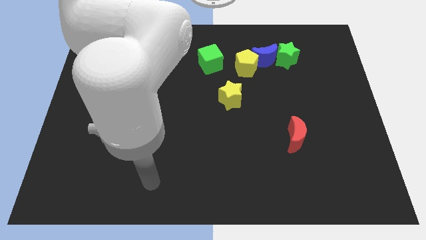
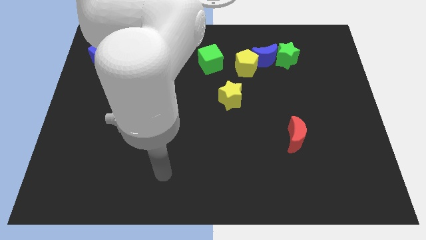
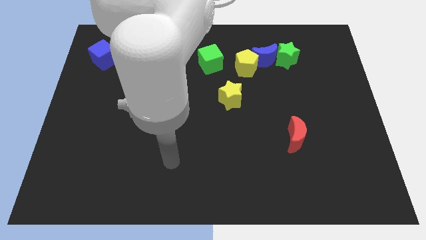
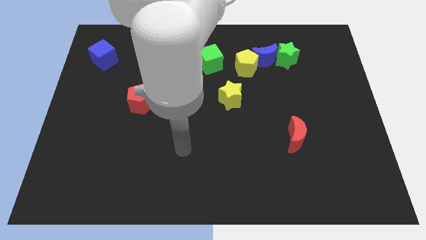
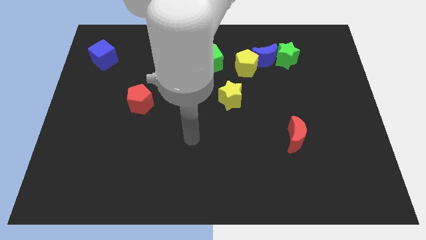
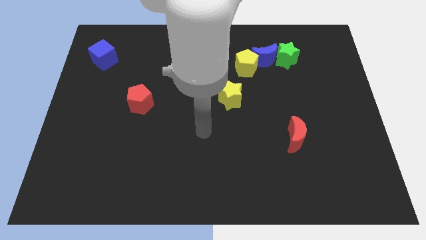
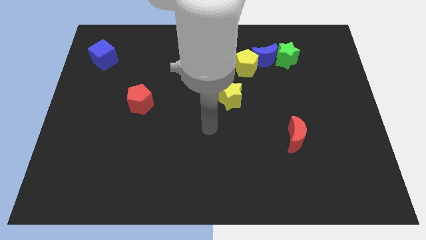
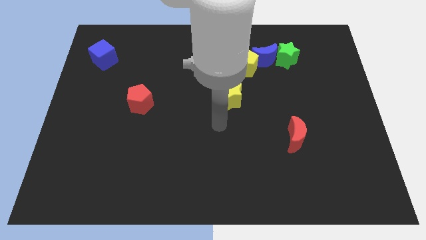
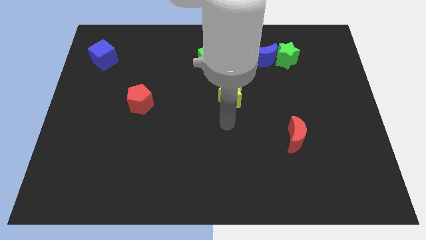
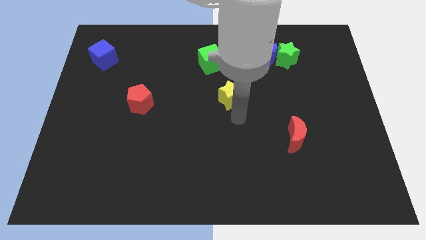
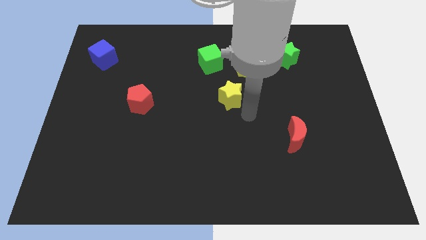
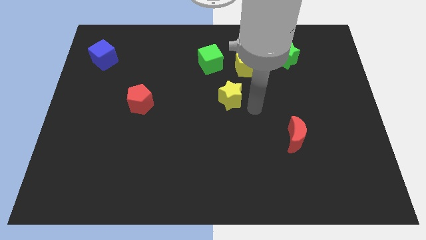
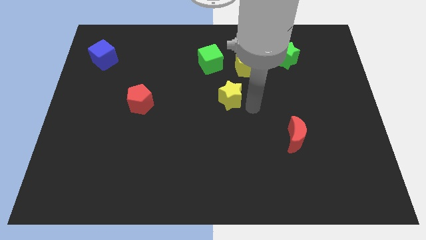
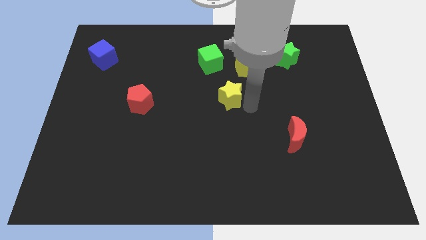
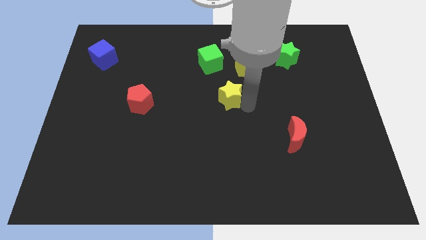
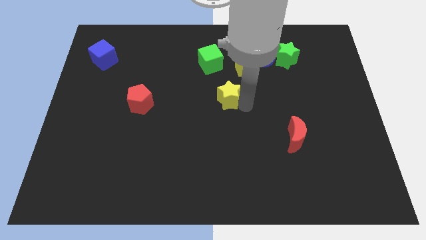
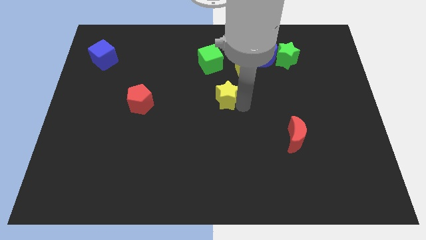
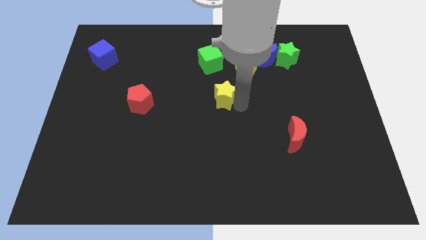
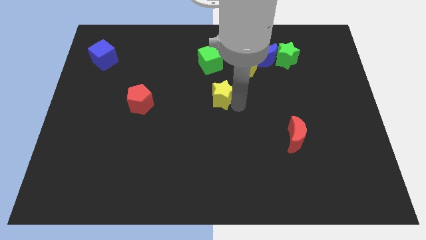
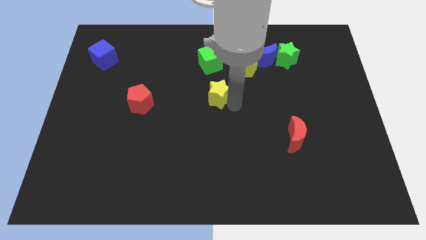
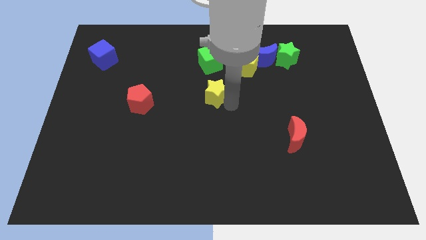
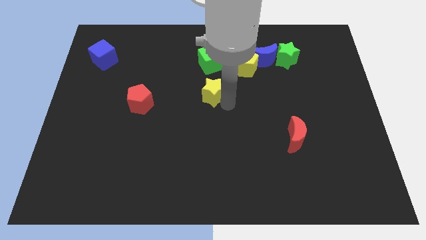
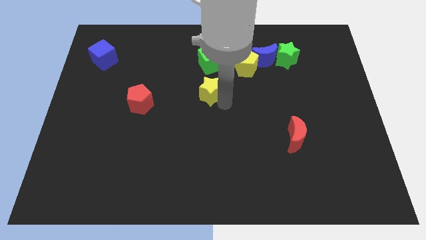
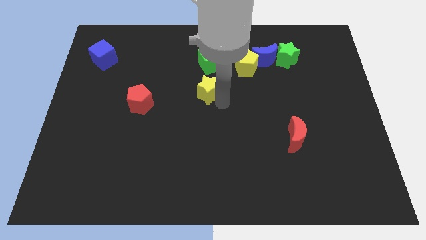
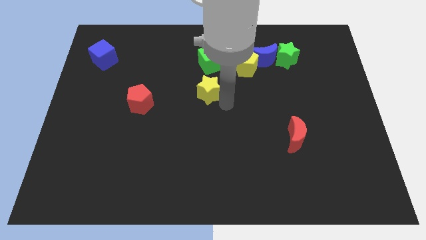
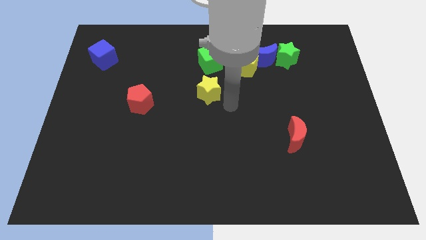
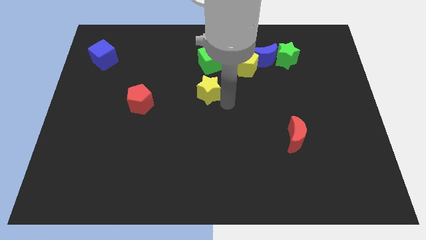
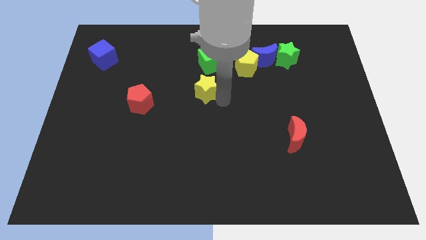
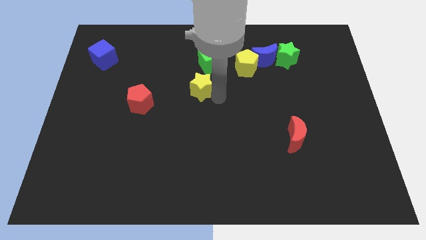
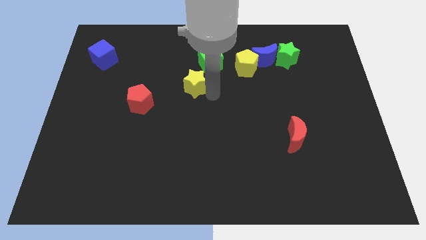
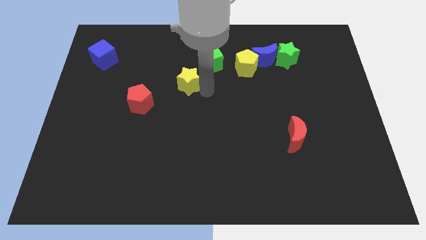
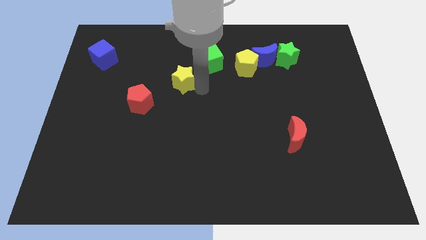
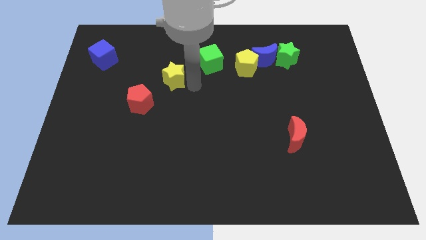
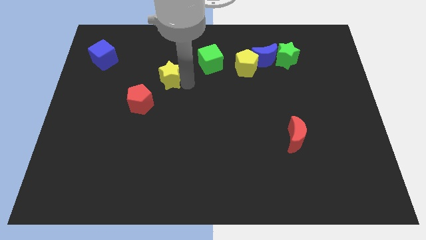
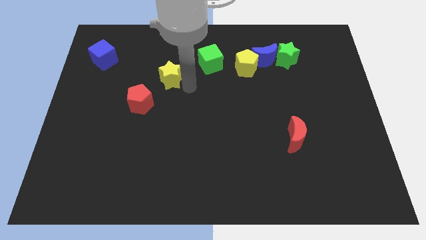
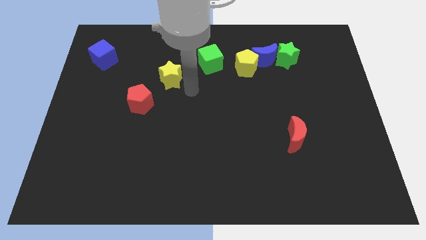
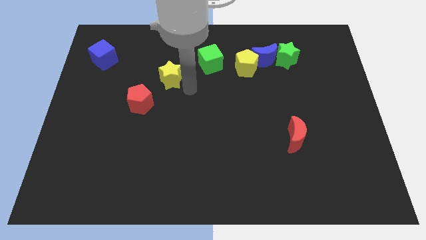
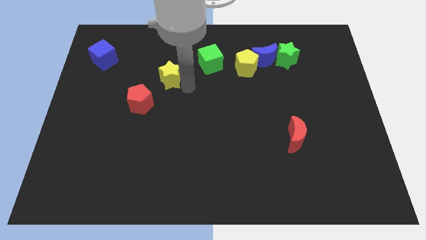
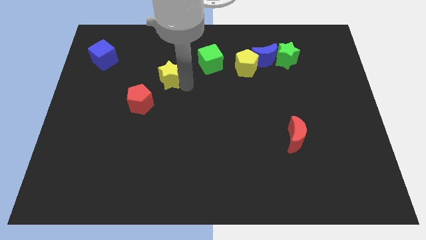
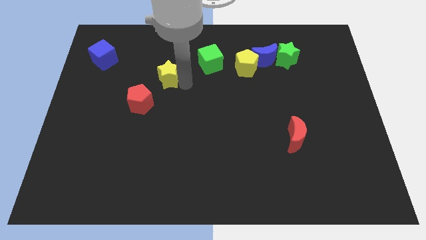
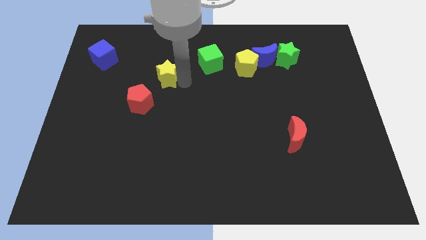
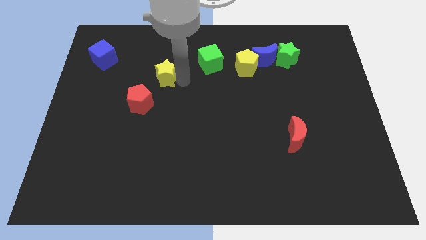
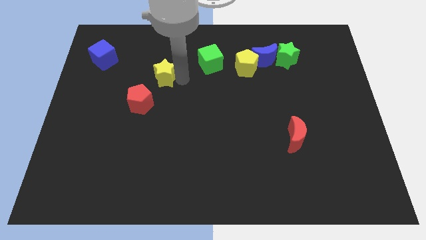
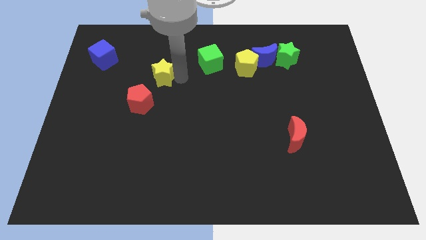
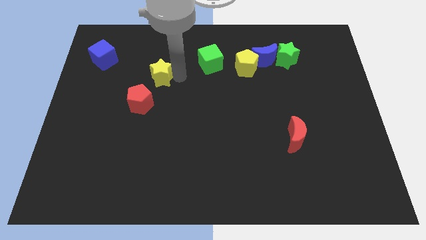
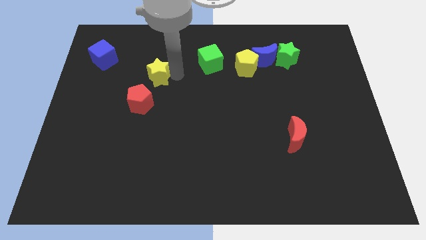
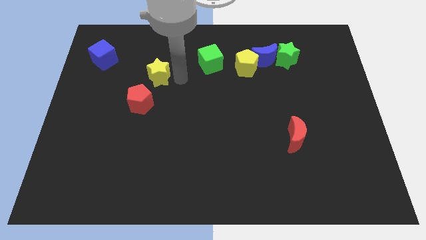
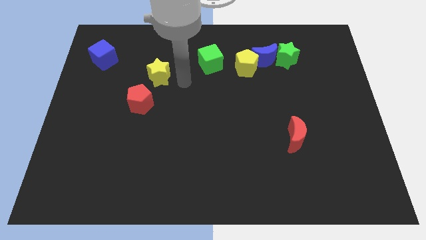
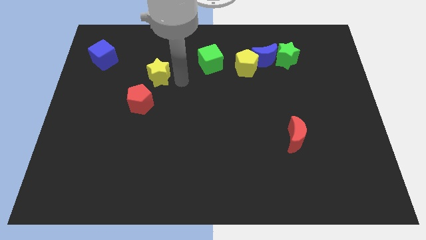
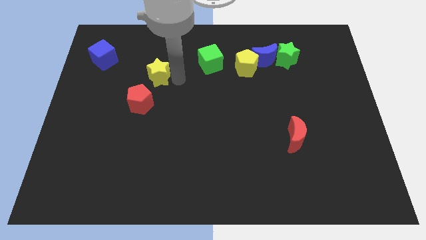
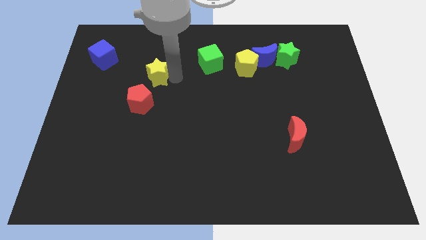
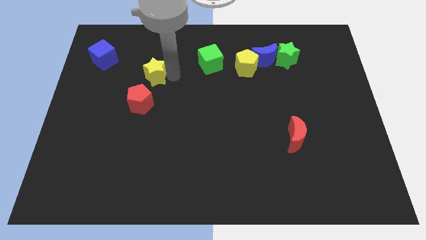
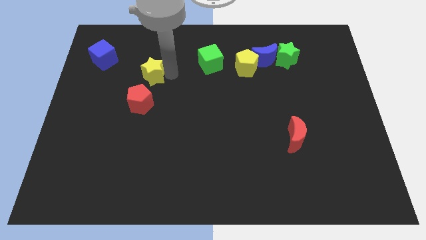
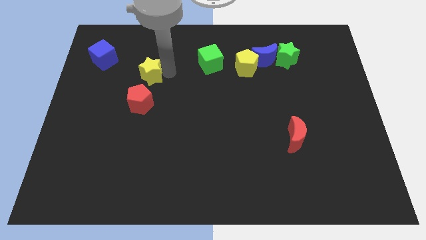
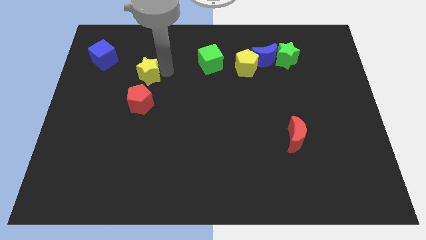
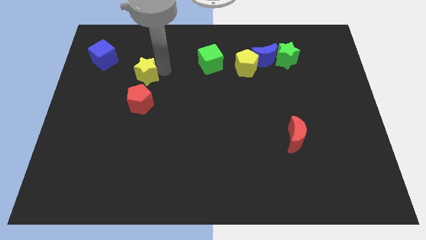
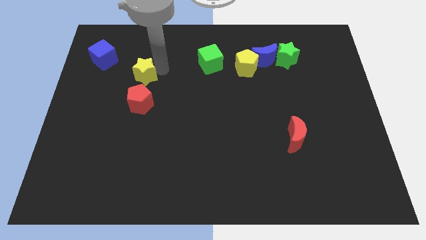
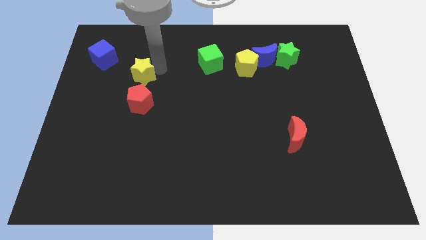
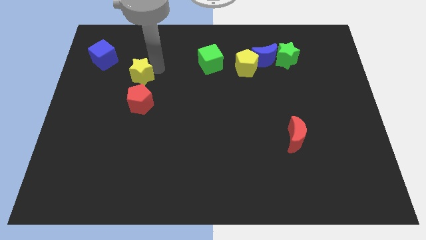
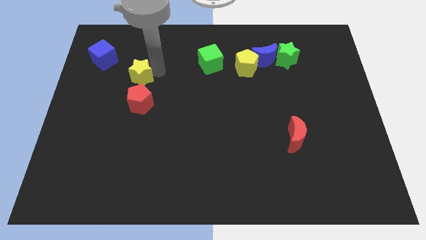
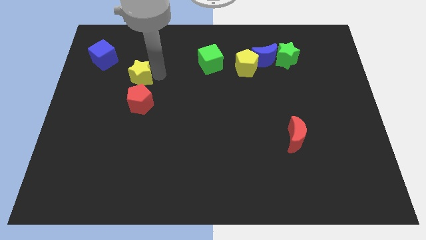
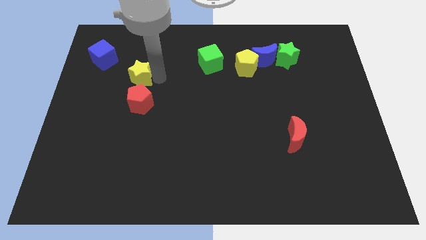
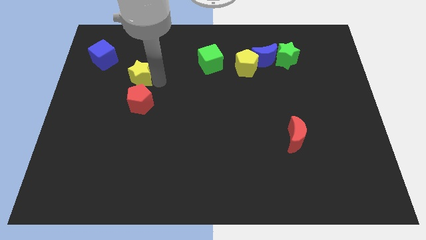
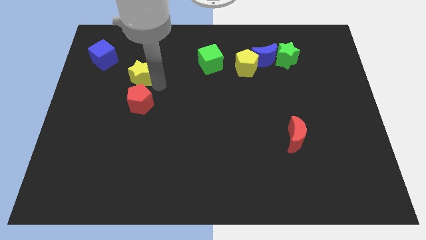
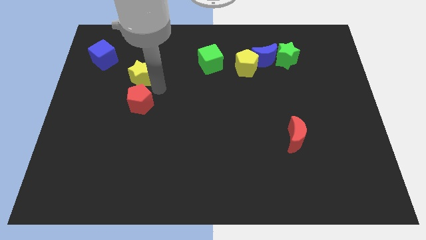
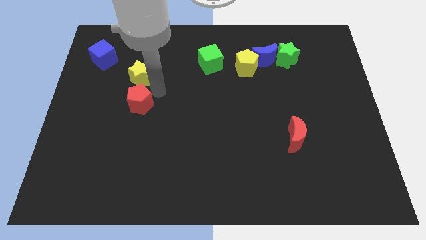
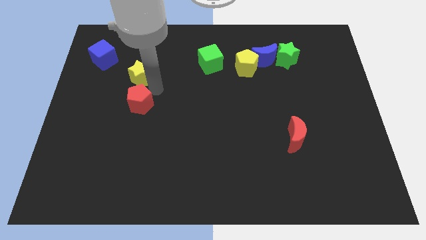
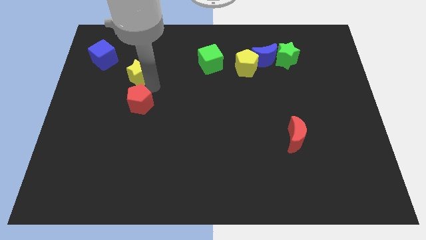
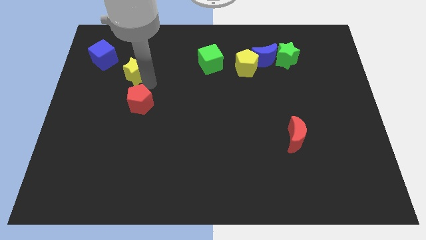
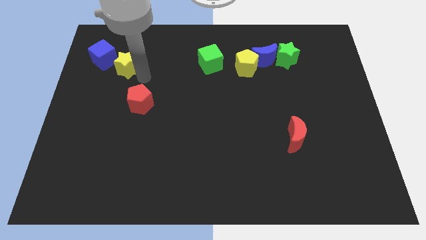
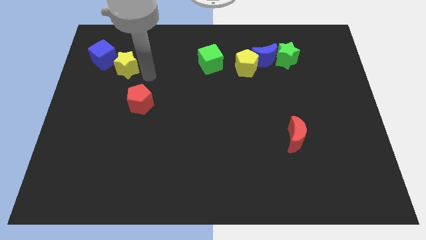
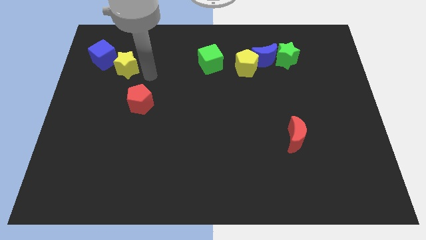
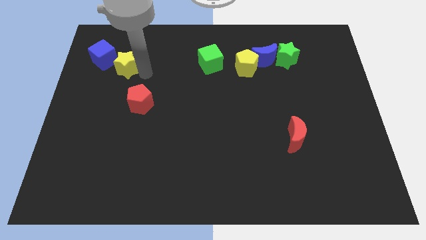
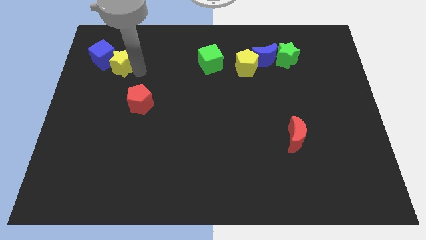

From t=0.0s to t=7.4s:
slide the yellow star to the blue cube
